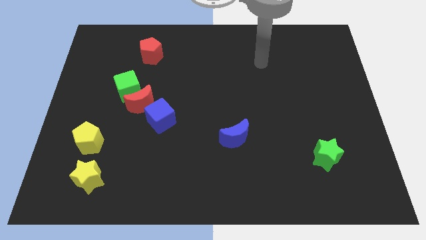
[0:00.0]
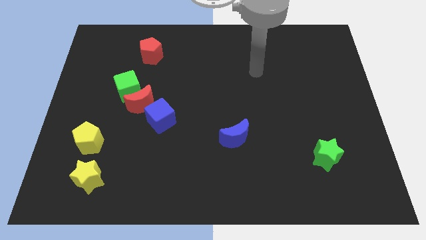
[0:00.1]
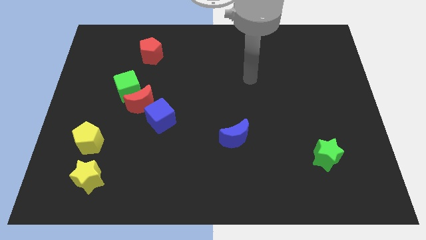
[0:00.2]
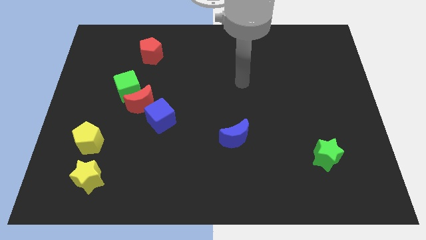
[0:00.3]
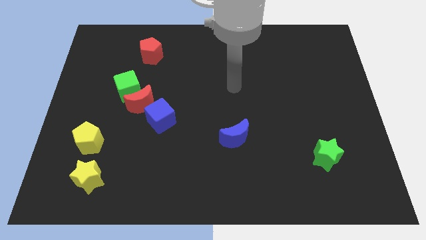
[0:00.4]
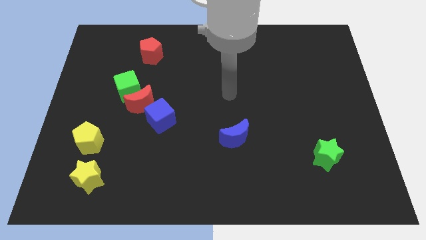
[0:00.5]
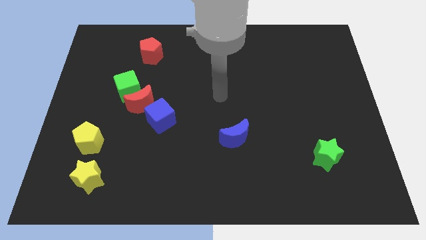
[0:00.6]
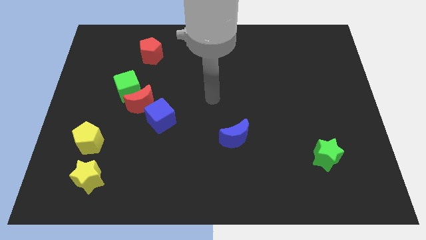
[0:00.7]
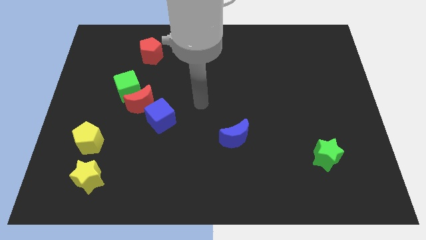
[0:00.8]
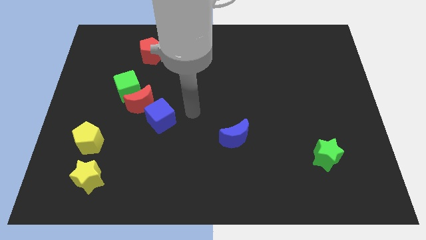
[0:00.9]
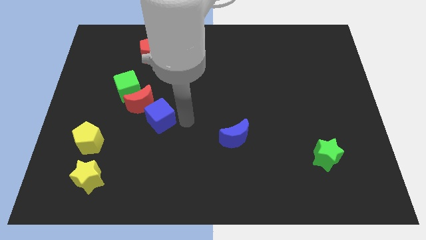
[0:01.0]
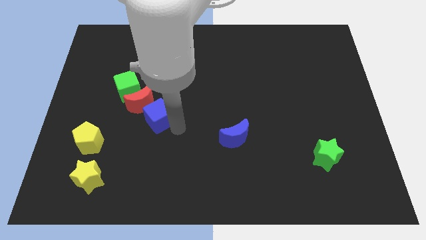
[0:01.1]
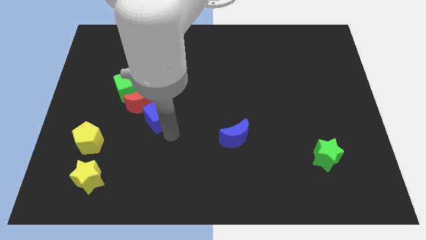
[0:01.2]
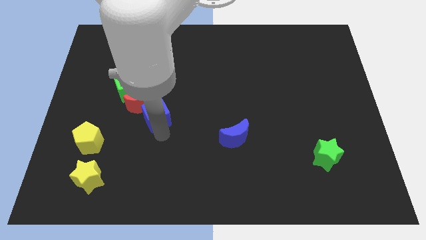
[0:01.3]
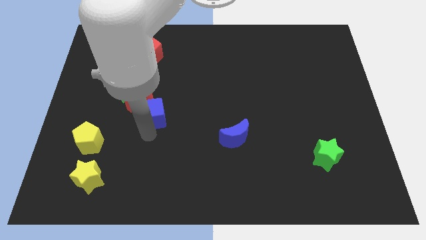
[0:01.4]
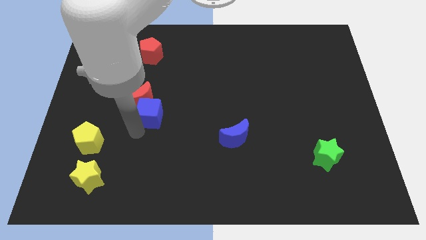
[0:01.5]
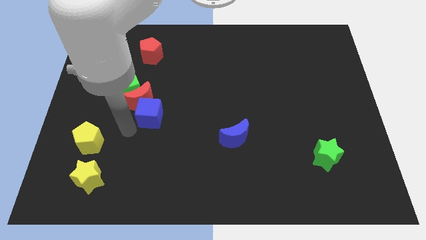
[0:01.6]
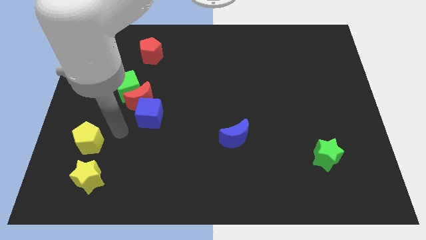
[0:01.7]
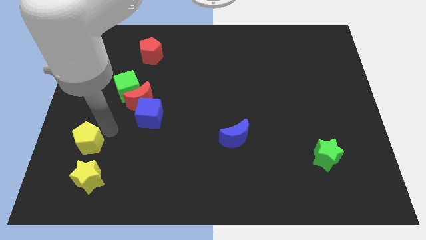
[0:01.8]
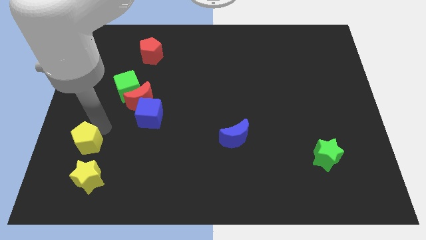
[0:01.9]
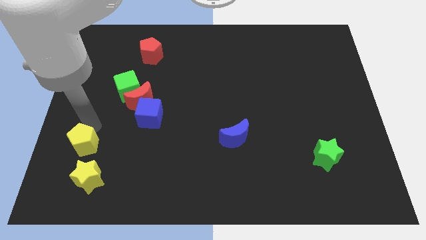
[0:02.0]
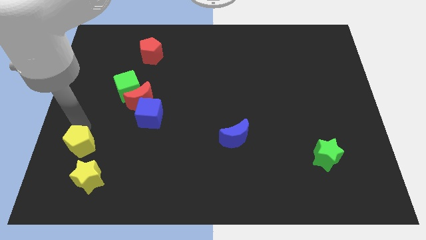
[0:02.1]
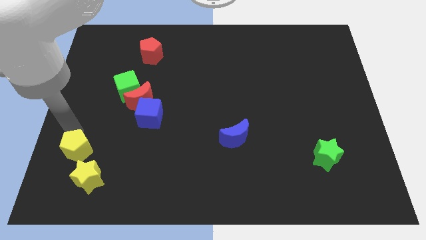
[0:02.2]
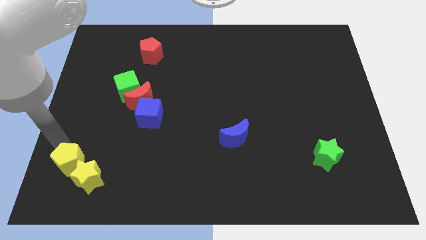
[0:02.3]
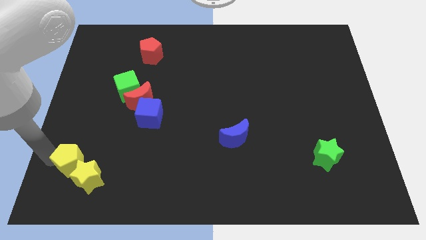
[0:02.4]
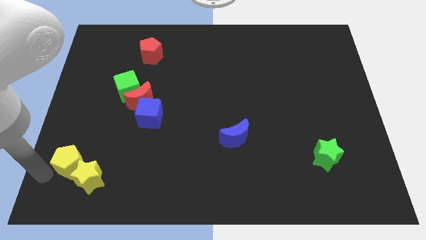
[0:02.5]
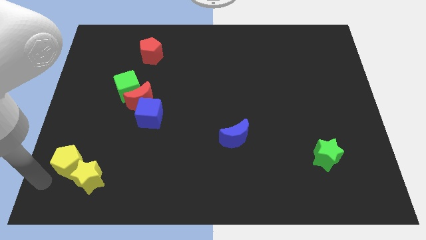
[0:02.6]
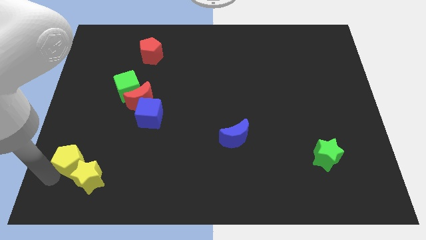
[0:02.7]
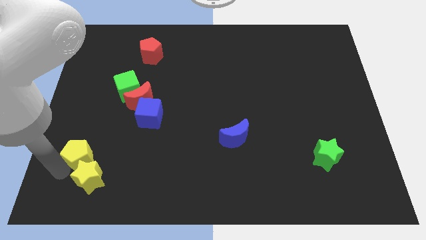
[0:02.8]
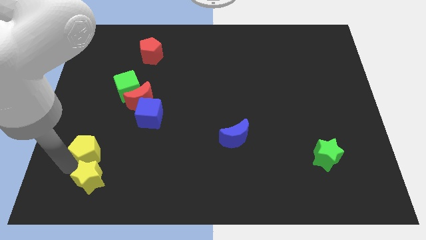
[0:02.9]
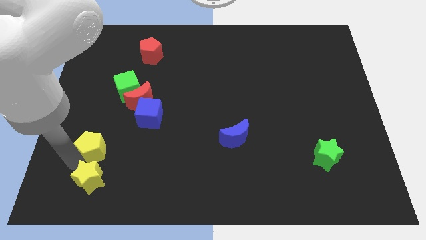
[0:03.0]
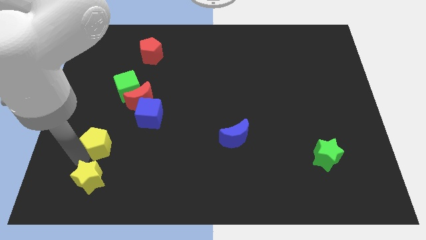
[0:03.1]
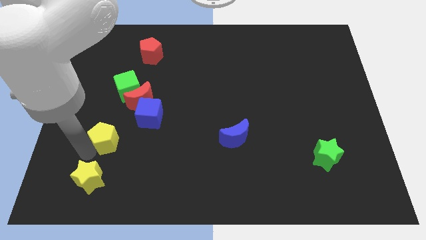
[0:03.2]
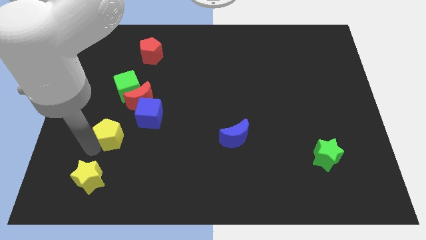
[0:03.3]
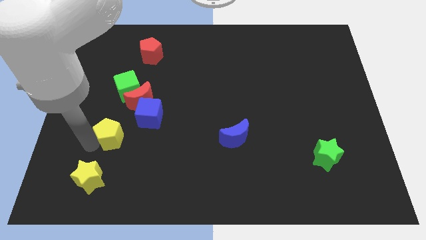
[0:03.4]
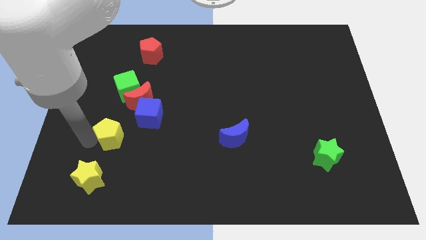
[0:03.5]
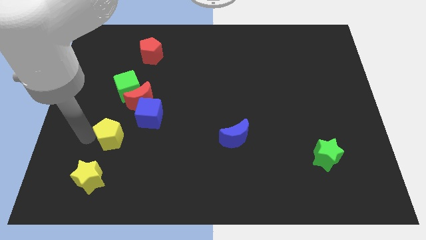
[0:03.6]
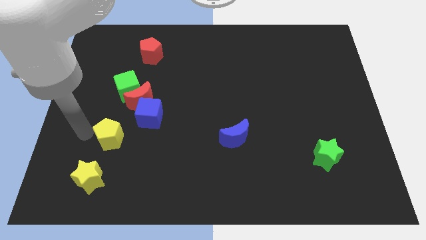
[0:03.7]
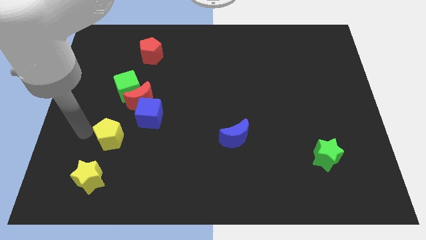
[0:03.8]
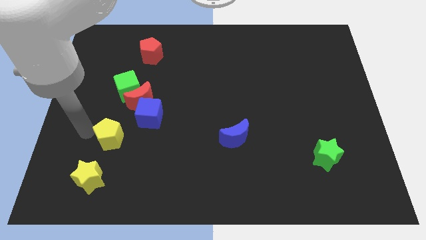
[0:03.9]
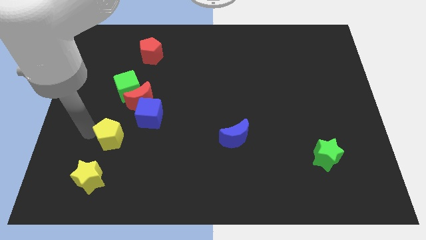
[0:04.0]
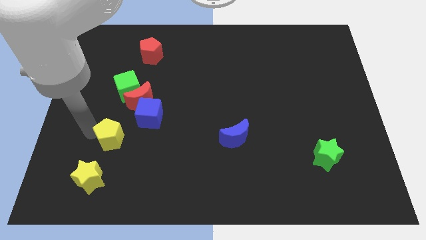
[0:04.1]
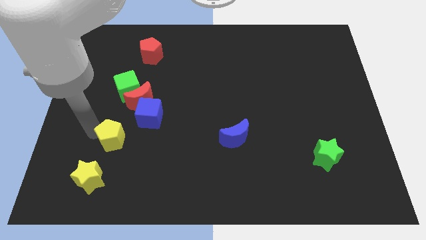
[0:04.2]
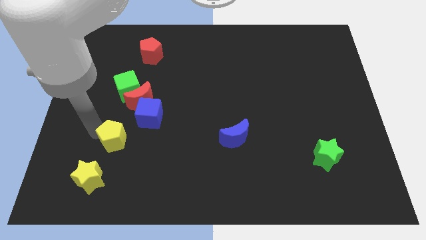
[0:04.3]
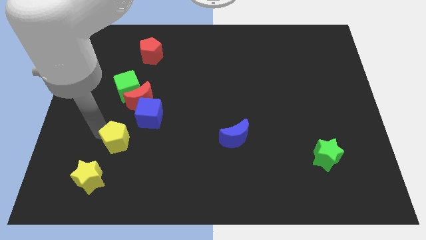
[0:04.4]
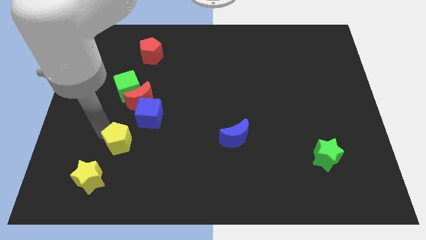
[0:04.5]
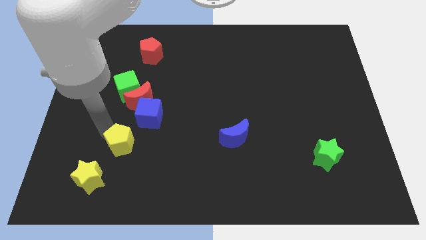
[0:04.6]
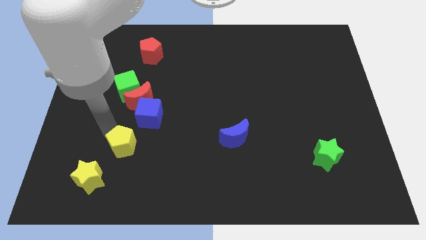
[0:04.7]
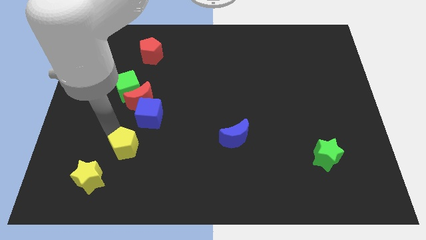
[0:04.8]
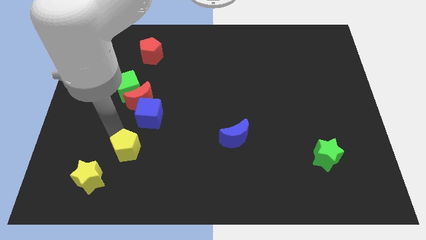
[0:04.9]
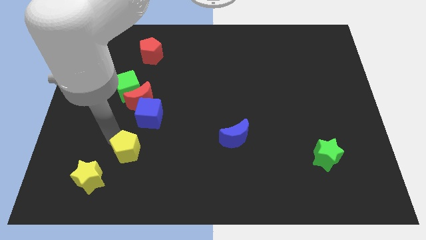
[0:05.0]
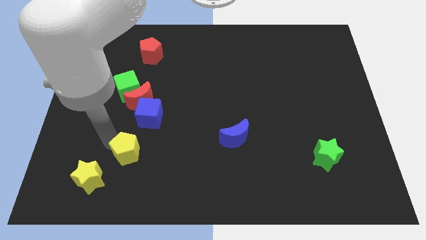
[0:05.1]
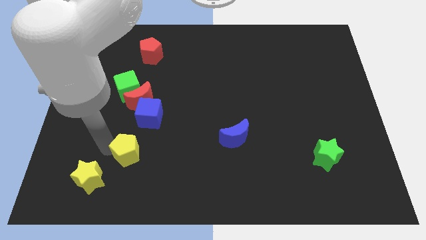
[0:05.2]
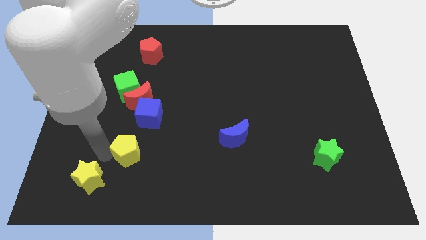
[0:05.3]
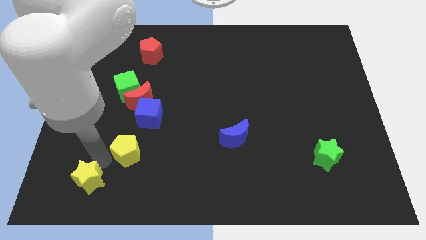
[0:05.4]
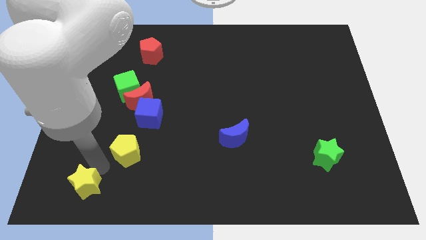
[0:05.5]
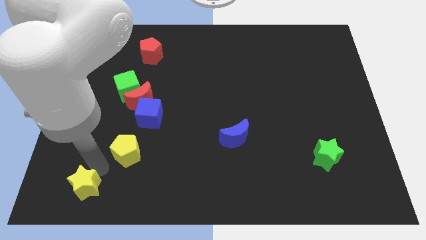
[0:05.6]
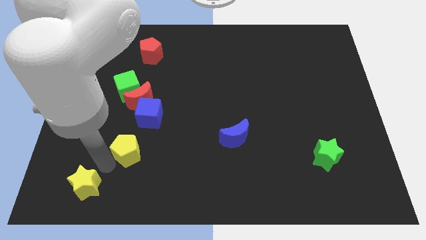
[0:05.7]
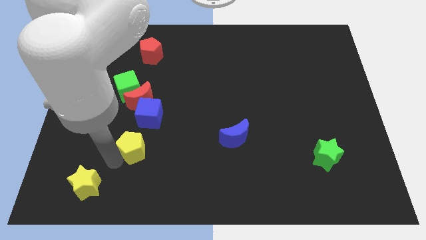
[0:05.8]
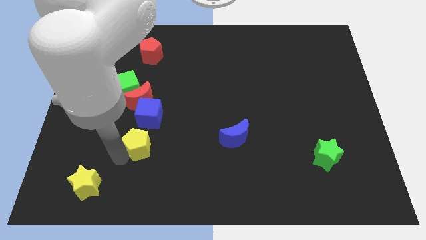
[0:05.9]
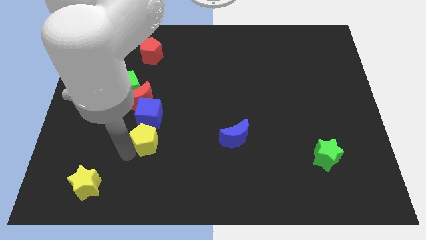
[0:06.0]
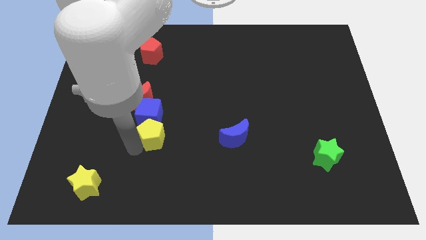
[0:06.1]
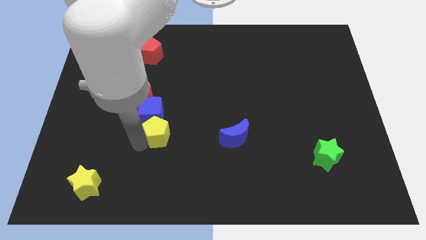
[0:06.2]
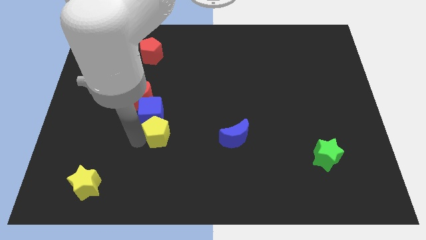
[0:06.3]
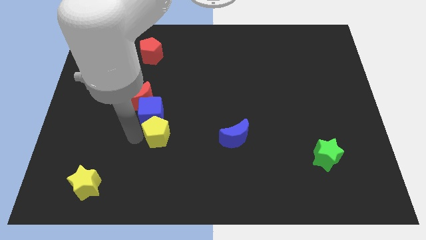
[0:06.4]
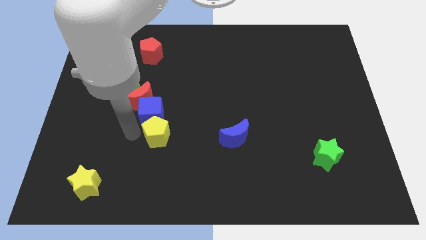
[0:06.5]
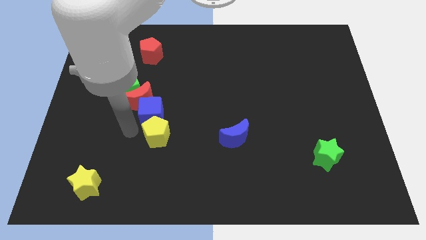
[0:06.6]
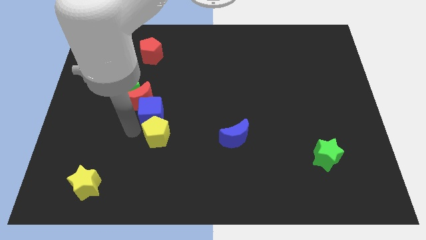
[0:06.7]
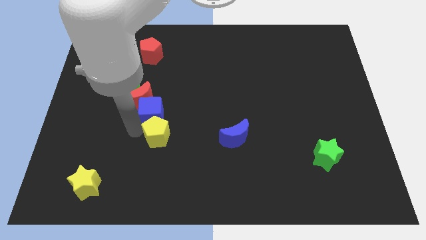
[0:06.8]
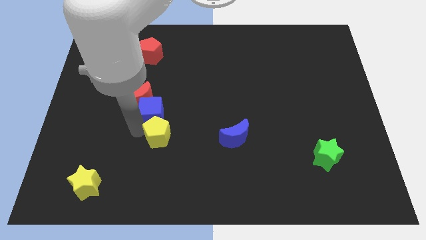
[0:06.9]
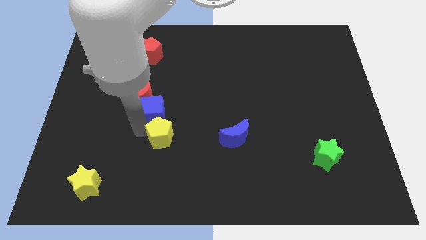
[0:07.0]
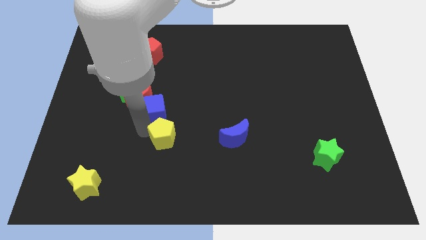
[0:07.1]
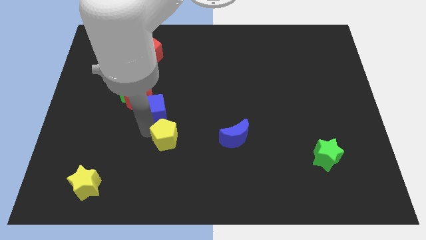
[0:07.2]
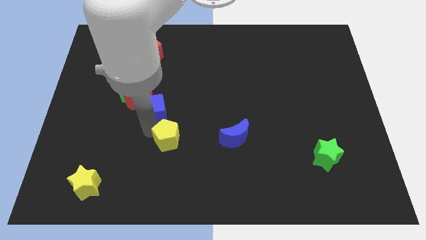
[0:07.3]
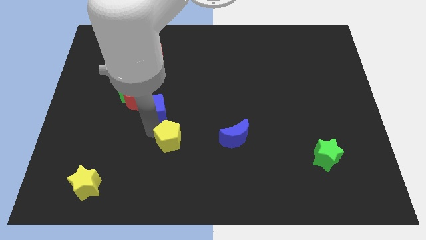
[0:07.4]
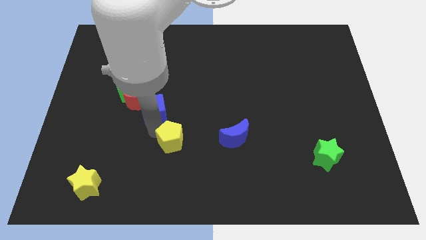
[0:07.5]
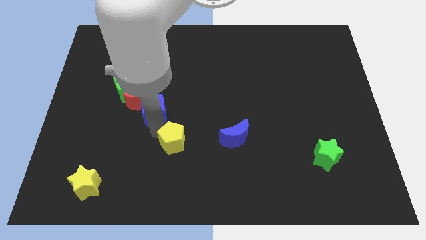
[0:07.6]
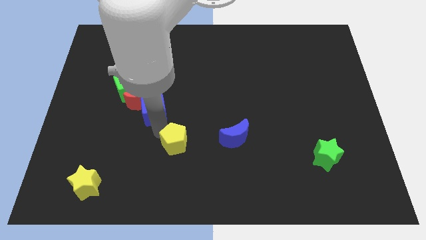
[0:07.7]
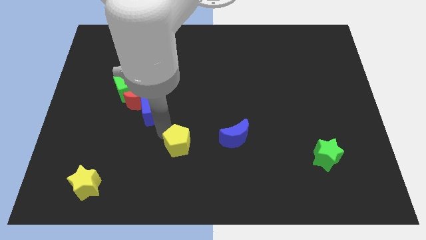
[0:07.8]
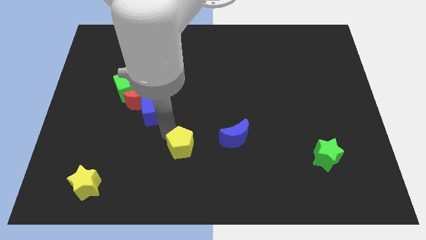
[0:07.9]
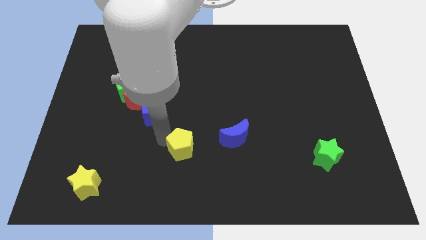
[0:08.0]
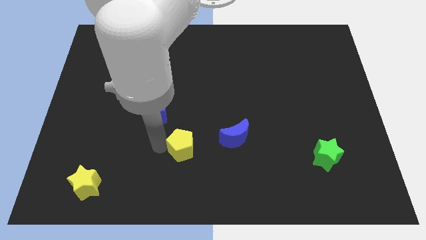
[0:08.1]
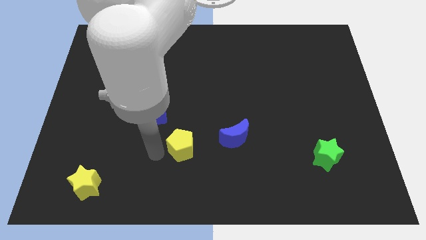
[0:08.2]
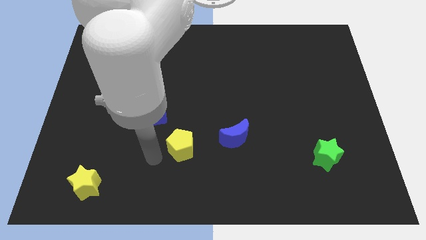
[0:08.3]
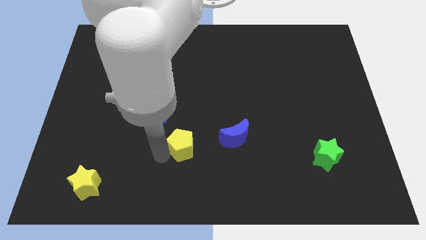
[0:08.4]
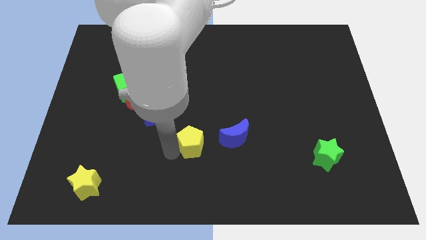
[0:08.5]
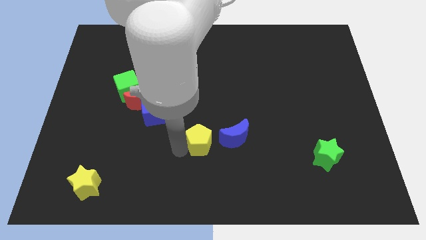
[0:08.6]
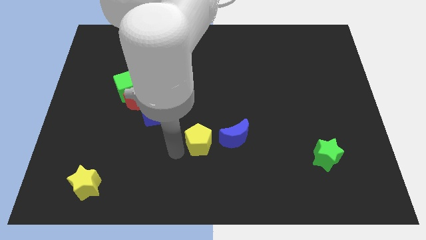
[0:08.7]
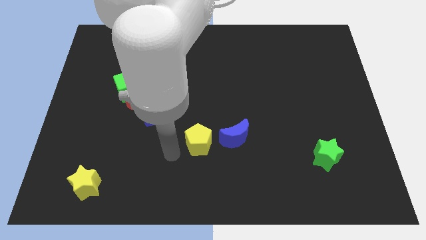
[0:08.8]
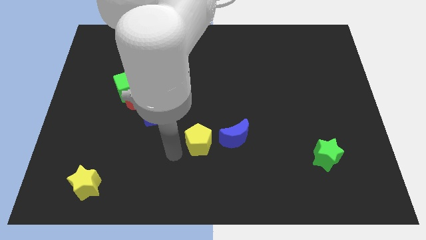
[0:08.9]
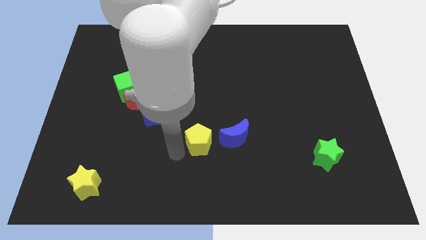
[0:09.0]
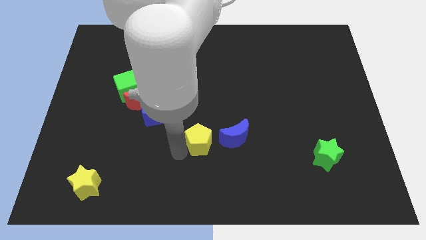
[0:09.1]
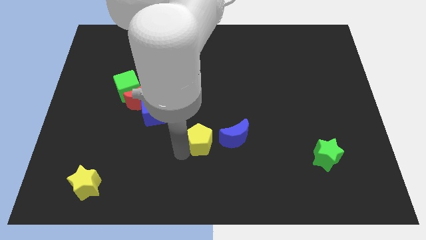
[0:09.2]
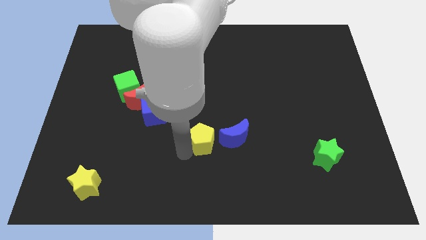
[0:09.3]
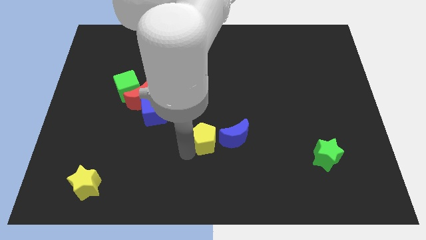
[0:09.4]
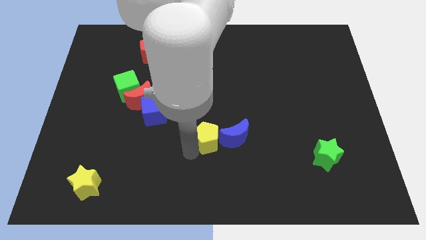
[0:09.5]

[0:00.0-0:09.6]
move the yellow pentagon next to the blue moon
